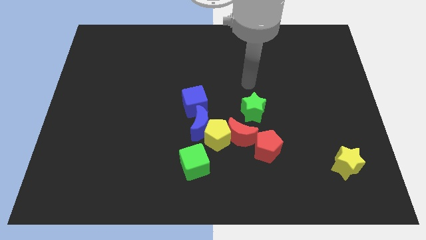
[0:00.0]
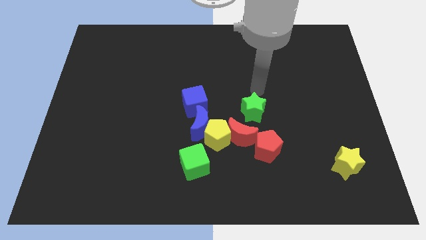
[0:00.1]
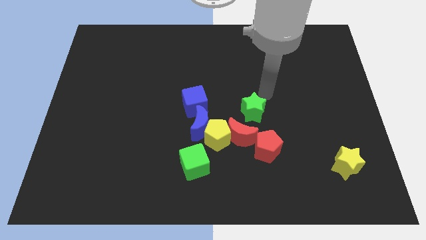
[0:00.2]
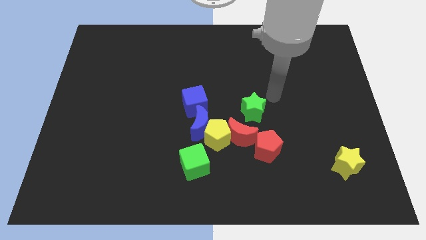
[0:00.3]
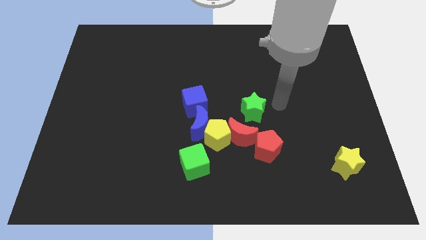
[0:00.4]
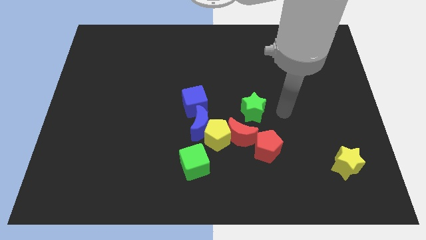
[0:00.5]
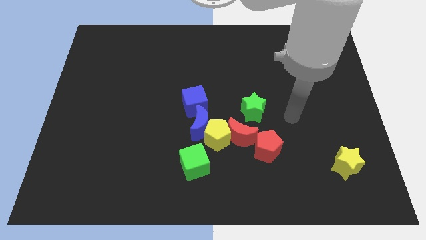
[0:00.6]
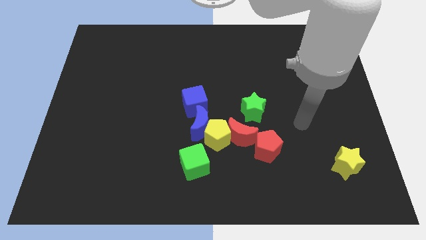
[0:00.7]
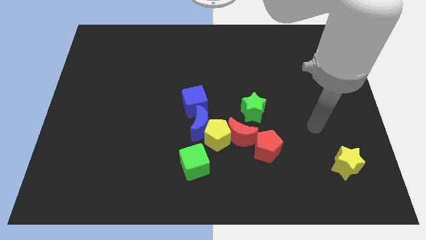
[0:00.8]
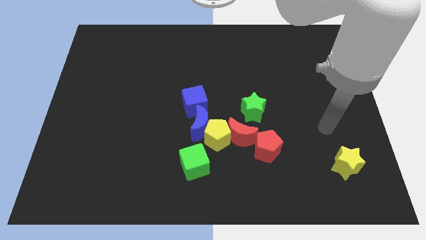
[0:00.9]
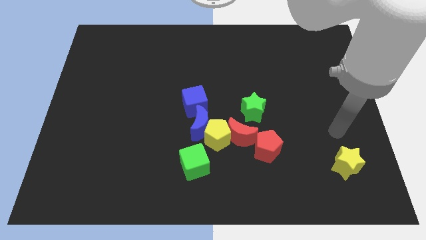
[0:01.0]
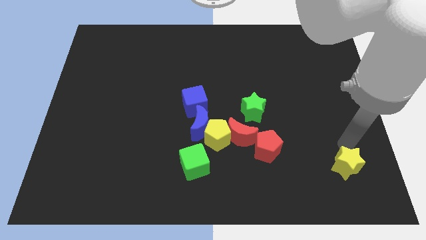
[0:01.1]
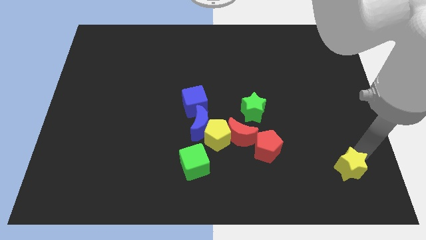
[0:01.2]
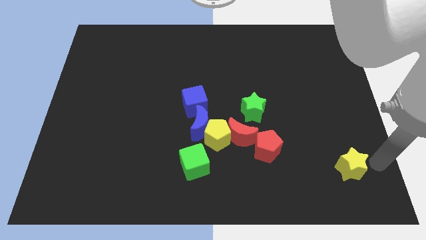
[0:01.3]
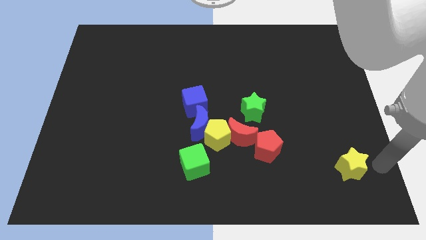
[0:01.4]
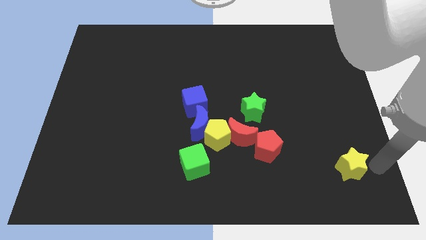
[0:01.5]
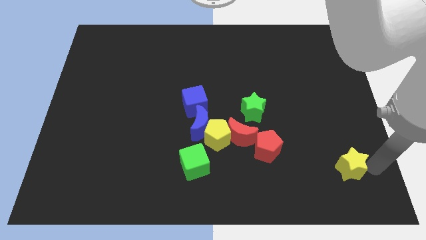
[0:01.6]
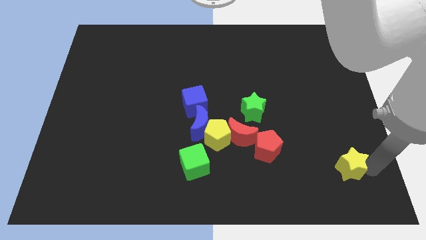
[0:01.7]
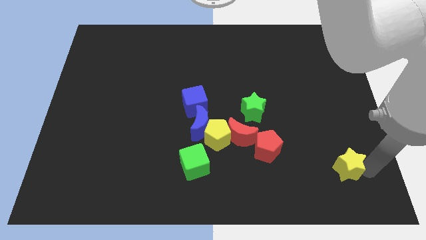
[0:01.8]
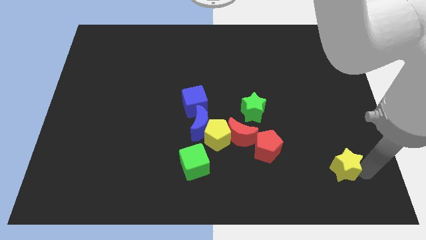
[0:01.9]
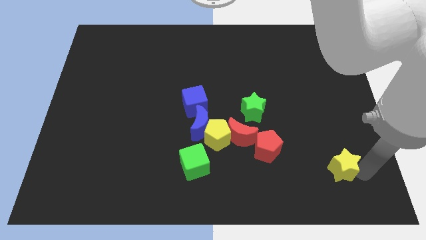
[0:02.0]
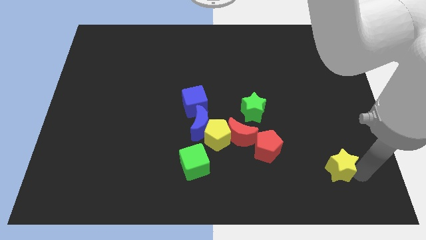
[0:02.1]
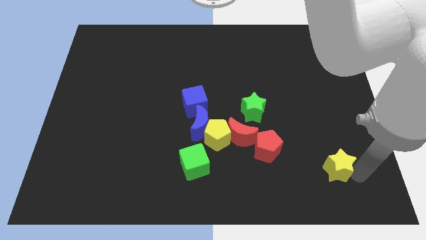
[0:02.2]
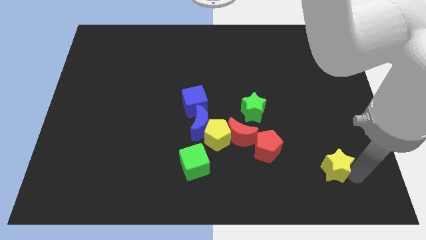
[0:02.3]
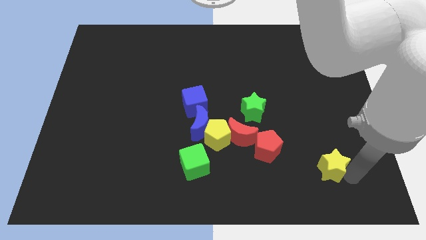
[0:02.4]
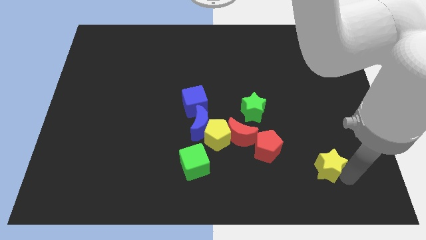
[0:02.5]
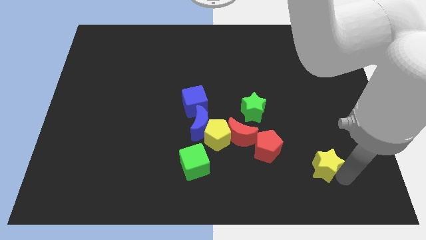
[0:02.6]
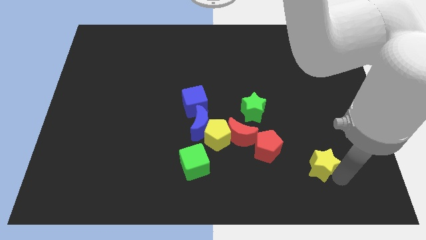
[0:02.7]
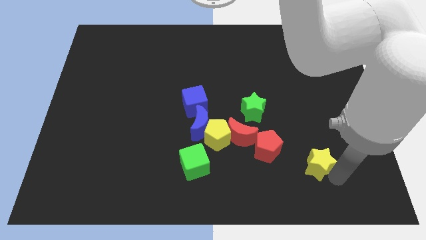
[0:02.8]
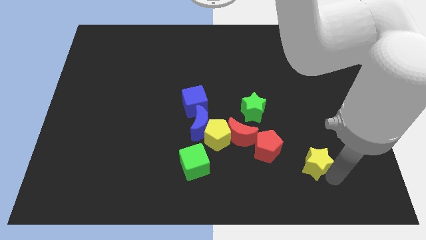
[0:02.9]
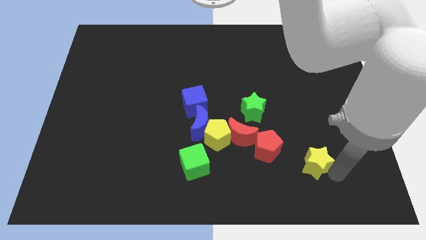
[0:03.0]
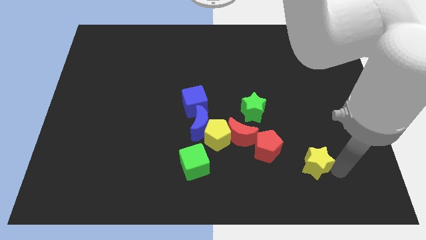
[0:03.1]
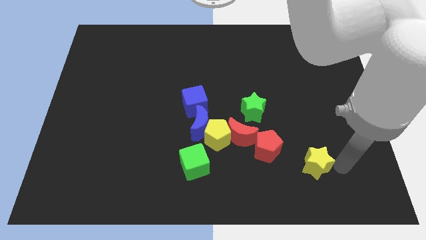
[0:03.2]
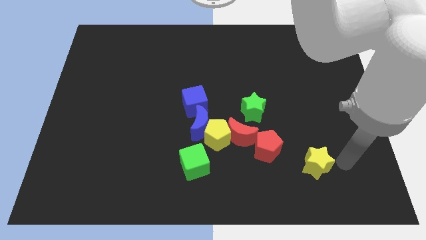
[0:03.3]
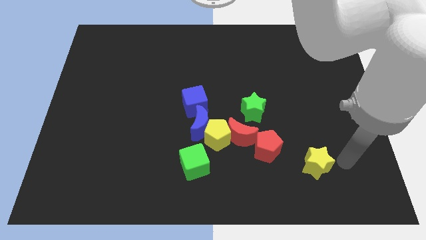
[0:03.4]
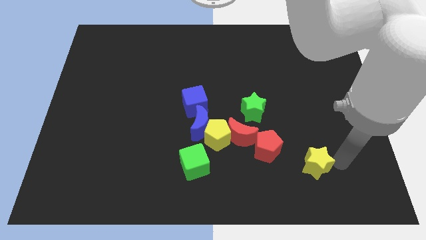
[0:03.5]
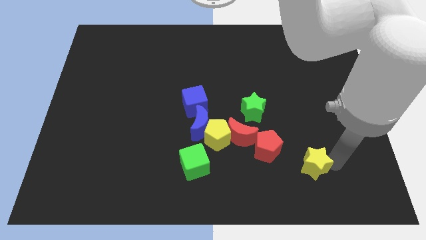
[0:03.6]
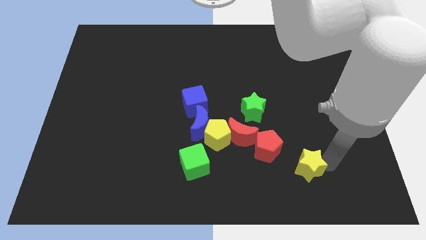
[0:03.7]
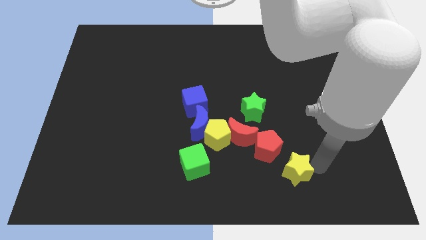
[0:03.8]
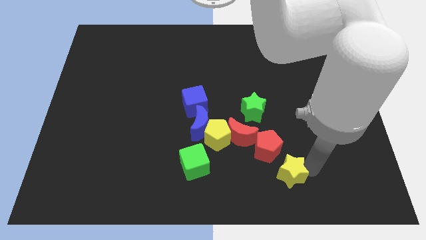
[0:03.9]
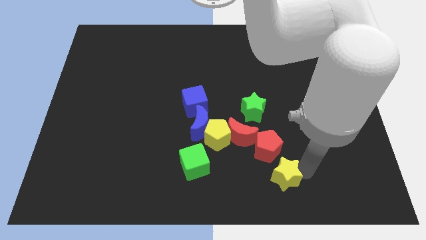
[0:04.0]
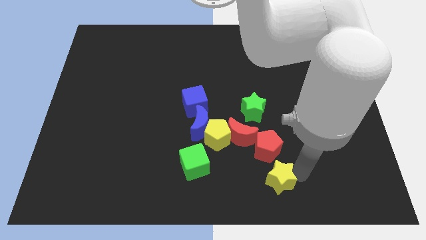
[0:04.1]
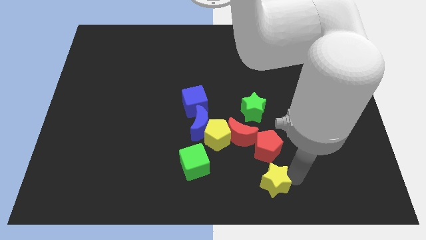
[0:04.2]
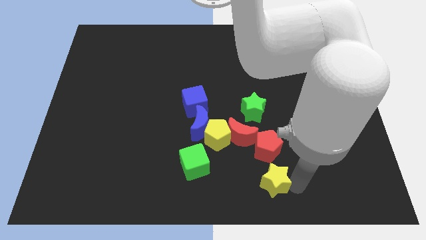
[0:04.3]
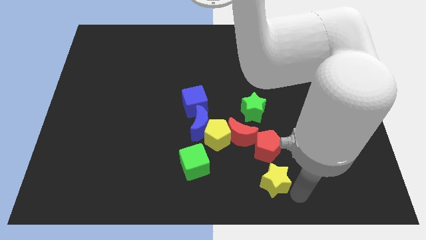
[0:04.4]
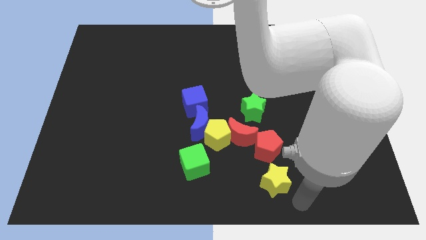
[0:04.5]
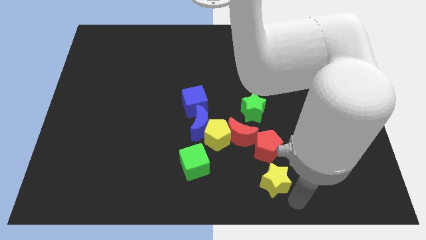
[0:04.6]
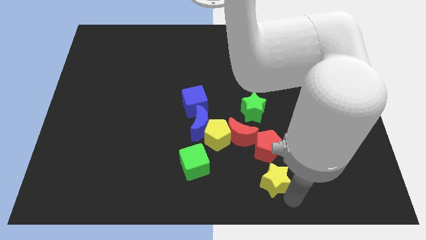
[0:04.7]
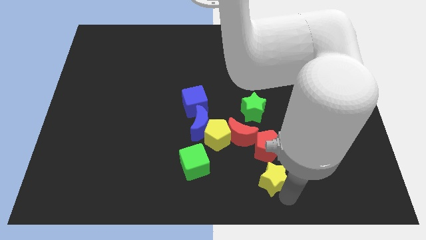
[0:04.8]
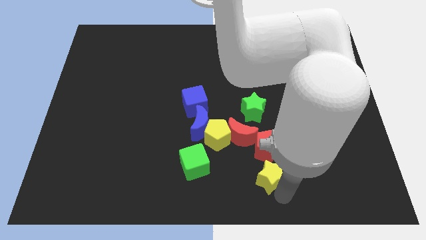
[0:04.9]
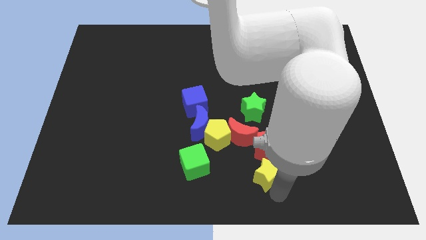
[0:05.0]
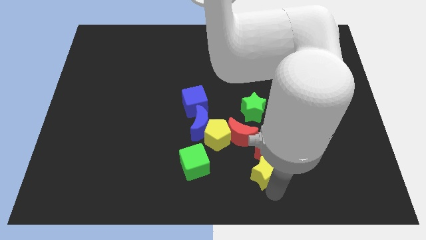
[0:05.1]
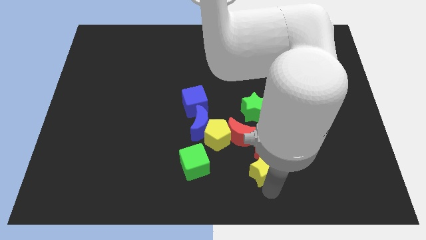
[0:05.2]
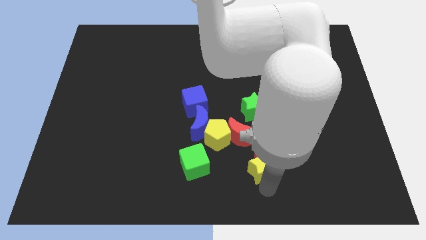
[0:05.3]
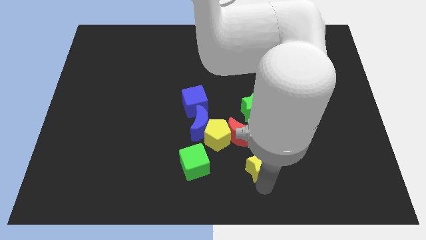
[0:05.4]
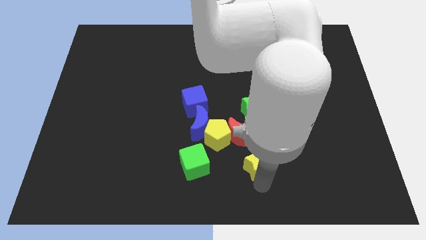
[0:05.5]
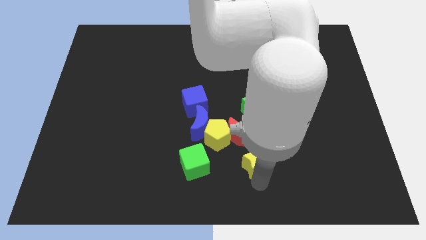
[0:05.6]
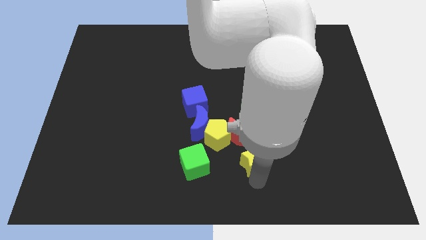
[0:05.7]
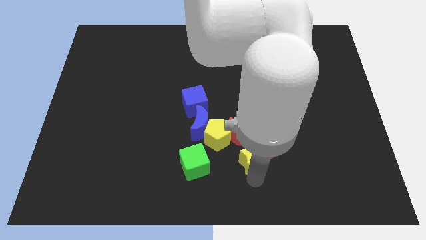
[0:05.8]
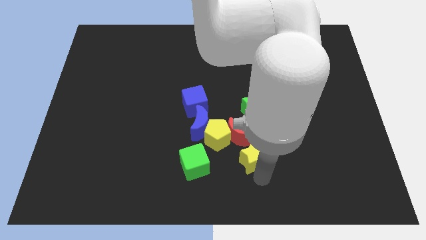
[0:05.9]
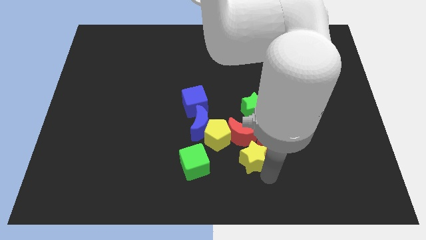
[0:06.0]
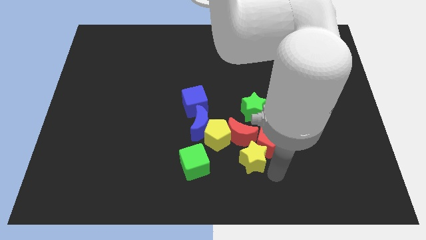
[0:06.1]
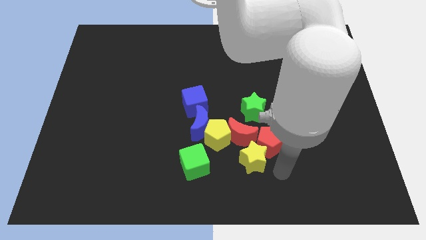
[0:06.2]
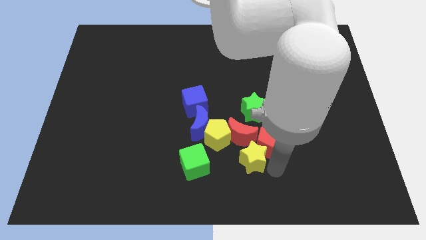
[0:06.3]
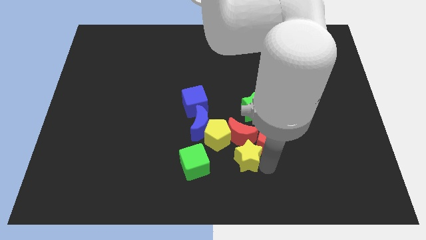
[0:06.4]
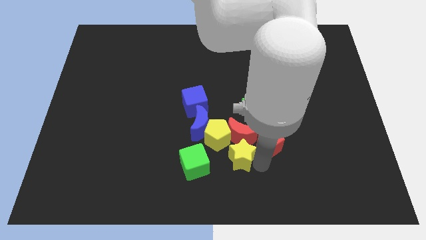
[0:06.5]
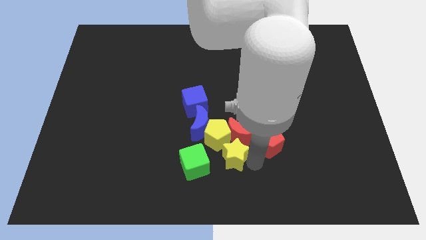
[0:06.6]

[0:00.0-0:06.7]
push the yellow star close to the yellow pentagon
